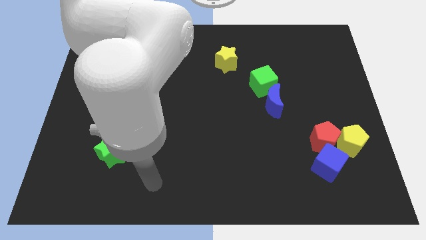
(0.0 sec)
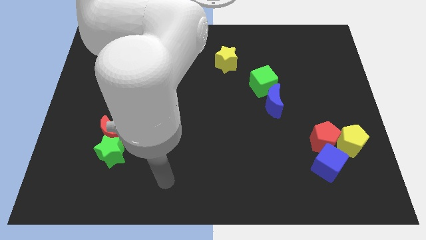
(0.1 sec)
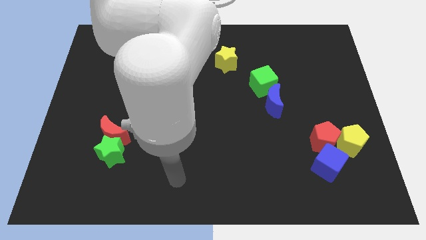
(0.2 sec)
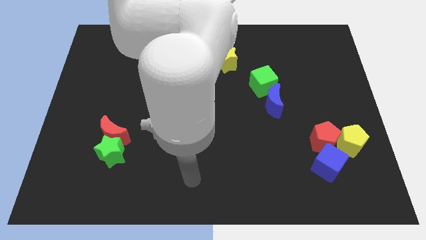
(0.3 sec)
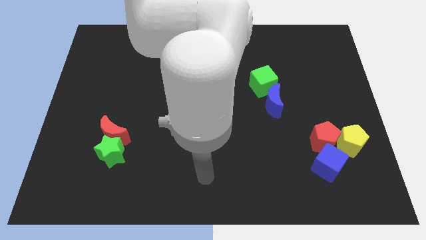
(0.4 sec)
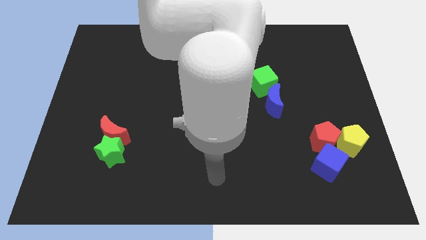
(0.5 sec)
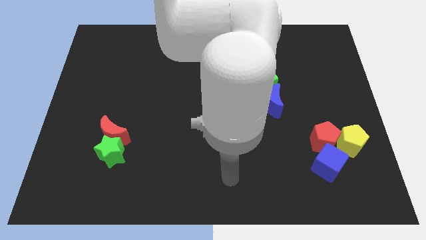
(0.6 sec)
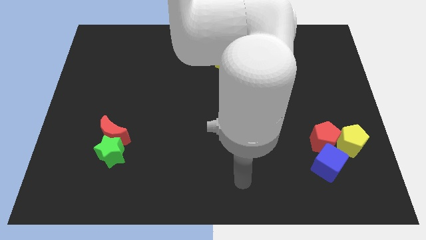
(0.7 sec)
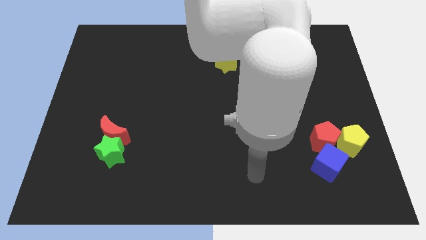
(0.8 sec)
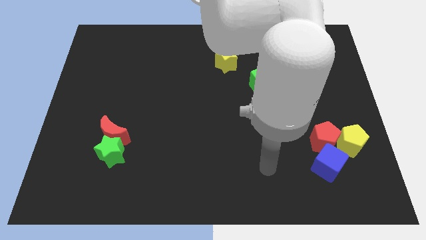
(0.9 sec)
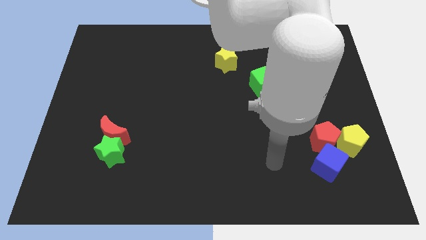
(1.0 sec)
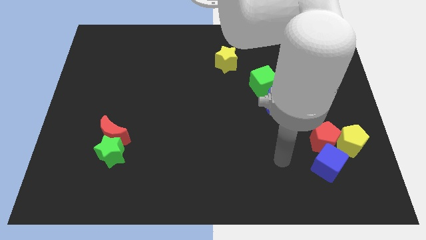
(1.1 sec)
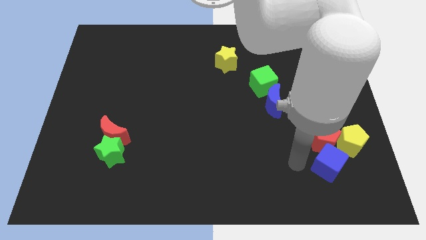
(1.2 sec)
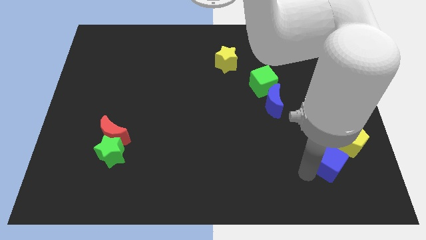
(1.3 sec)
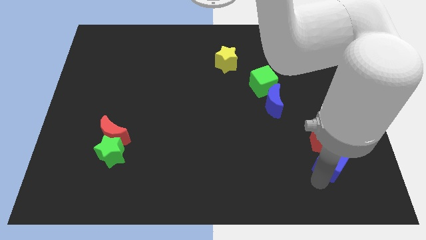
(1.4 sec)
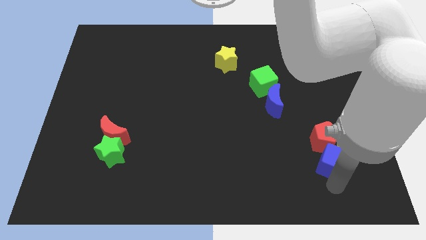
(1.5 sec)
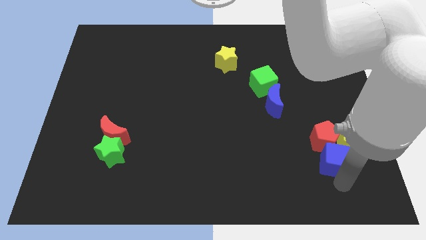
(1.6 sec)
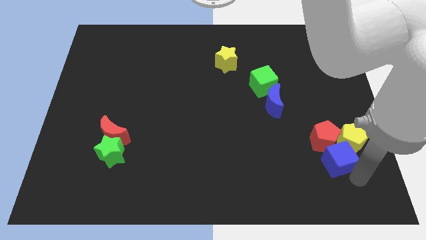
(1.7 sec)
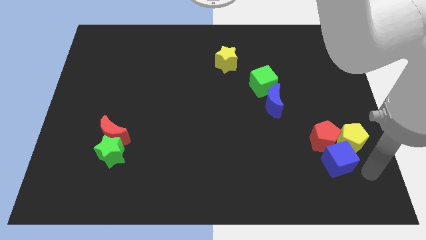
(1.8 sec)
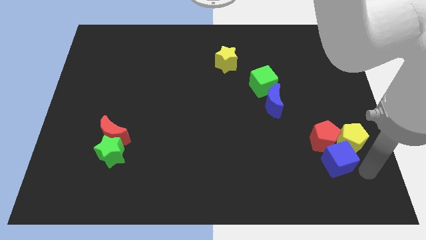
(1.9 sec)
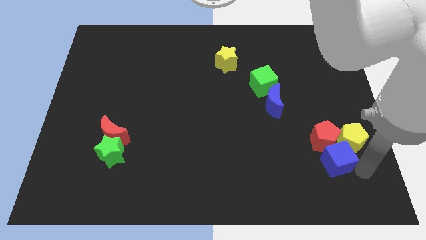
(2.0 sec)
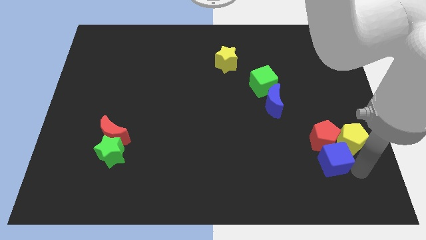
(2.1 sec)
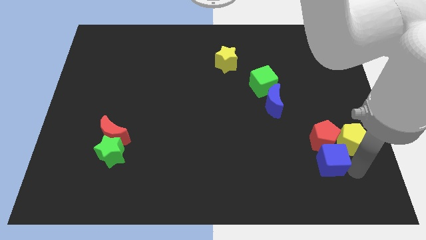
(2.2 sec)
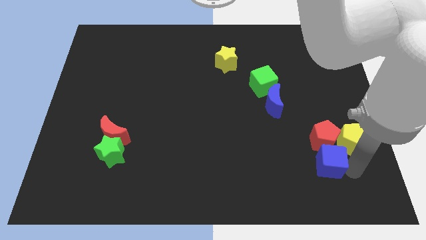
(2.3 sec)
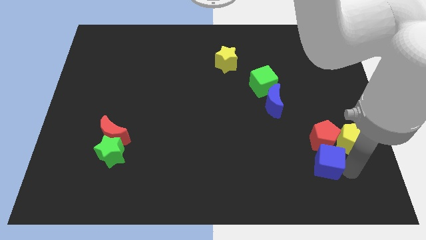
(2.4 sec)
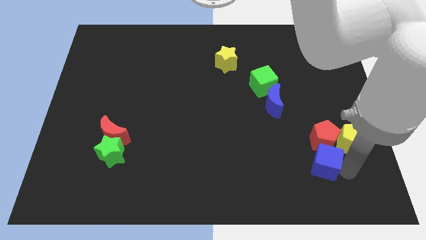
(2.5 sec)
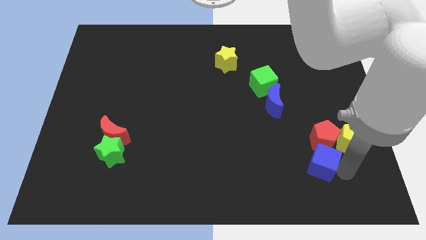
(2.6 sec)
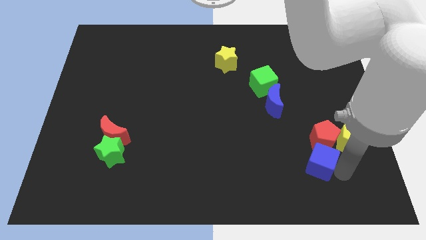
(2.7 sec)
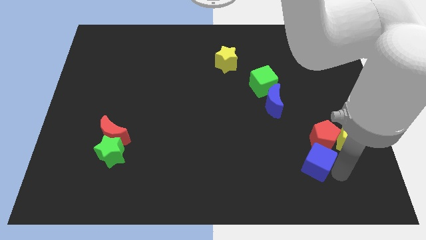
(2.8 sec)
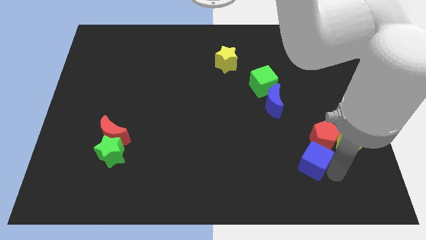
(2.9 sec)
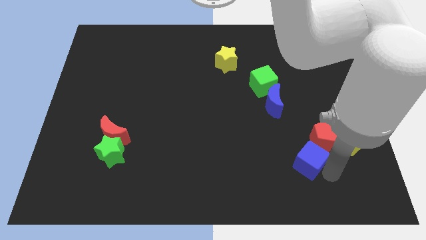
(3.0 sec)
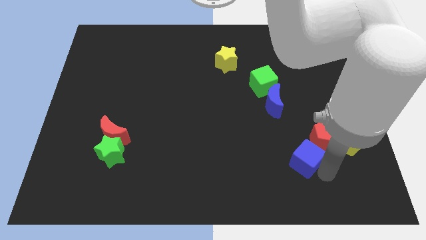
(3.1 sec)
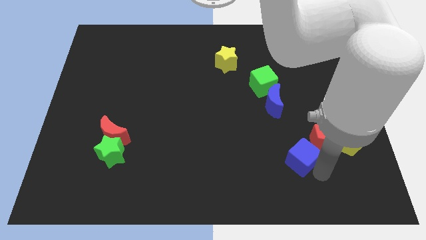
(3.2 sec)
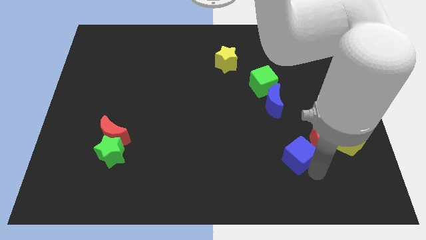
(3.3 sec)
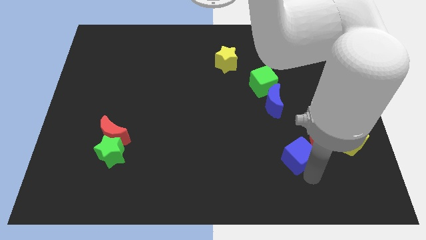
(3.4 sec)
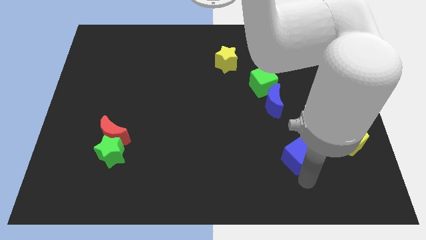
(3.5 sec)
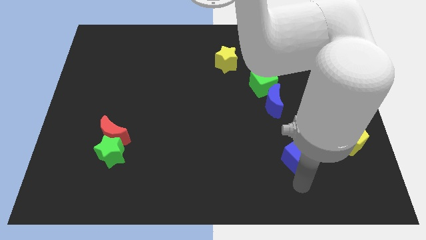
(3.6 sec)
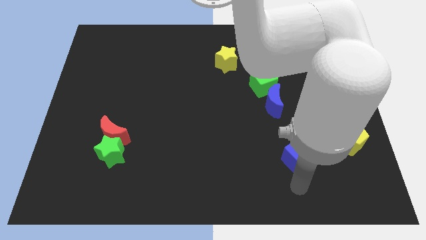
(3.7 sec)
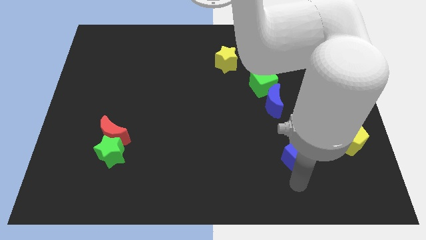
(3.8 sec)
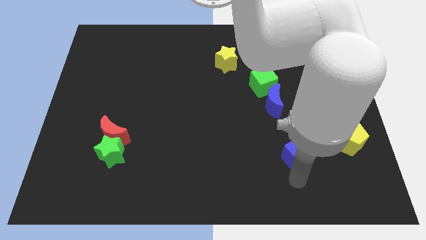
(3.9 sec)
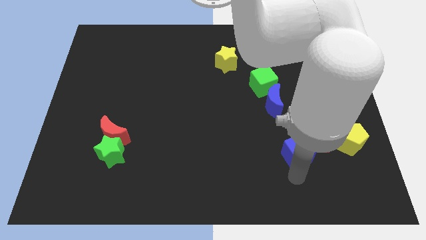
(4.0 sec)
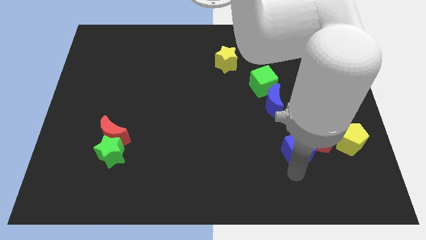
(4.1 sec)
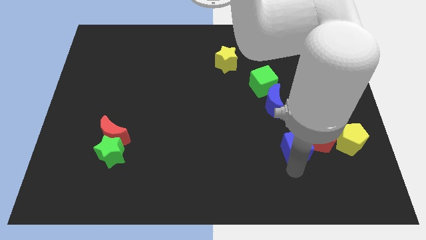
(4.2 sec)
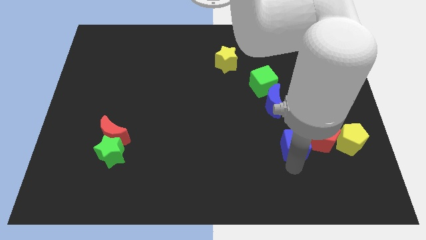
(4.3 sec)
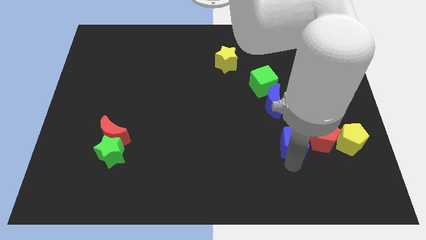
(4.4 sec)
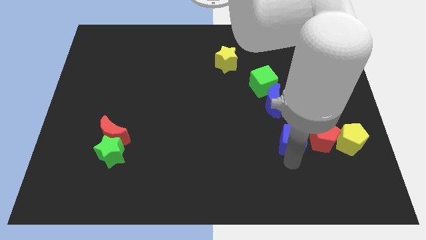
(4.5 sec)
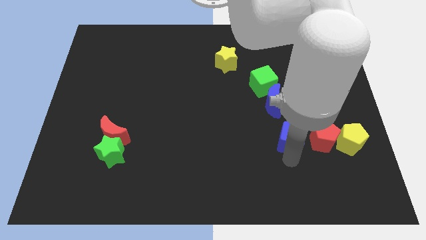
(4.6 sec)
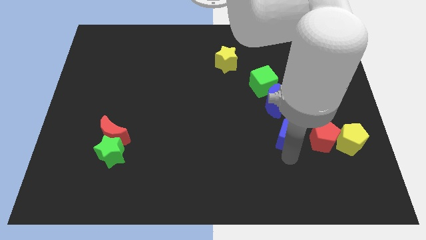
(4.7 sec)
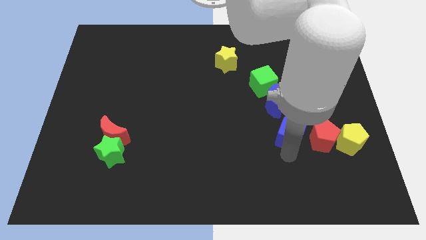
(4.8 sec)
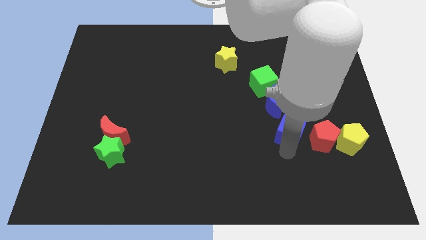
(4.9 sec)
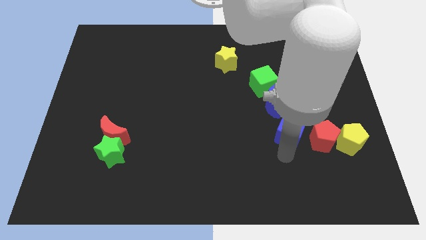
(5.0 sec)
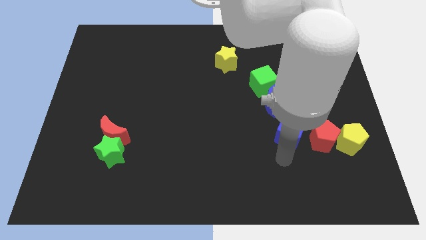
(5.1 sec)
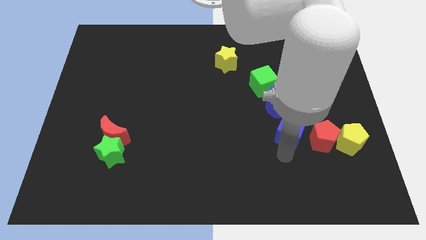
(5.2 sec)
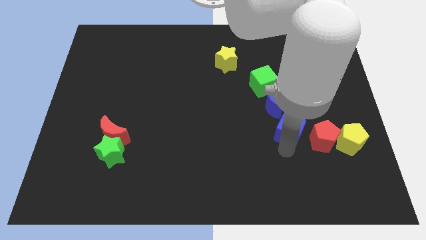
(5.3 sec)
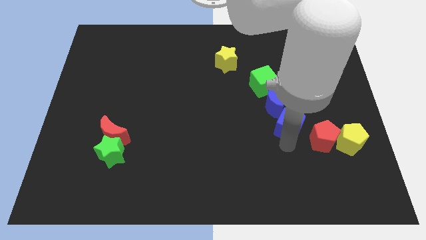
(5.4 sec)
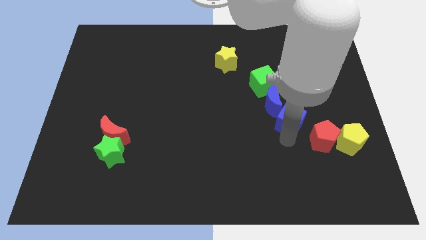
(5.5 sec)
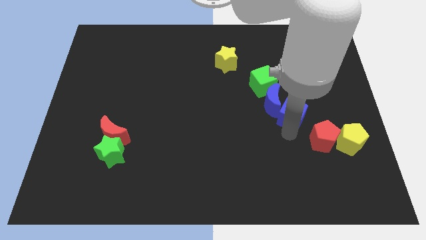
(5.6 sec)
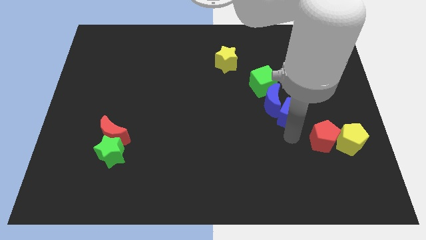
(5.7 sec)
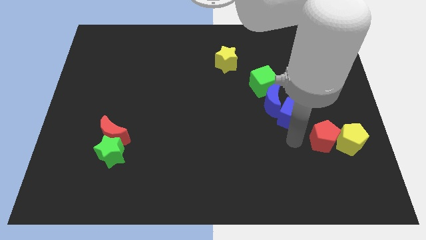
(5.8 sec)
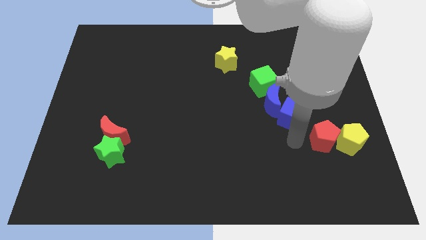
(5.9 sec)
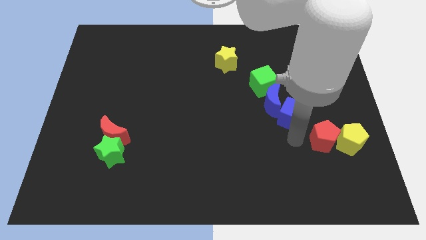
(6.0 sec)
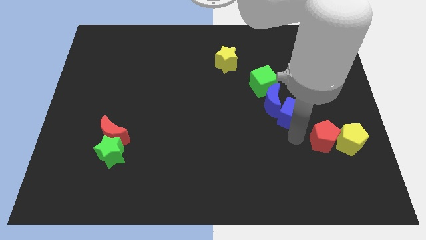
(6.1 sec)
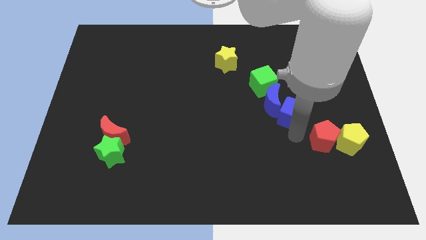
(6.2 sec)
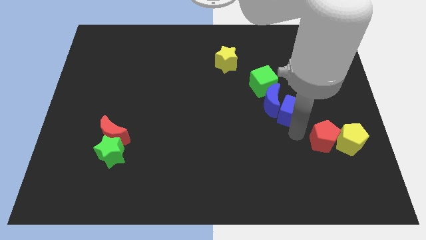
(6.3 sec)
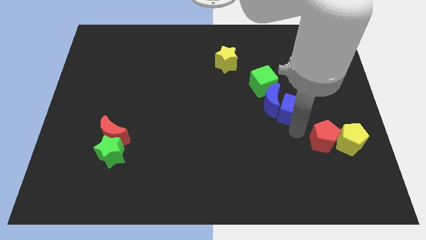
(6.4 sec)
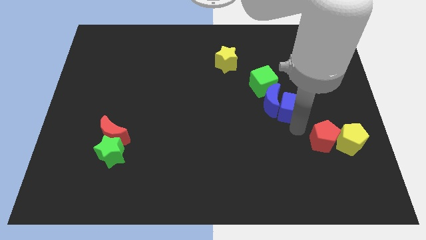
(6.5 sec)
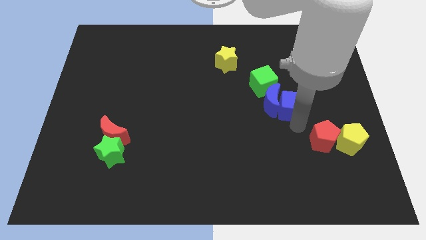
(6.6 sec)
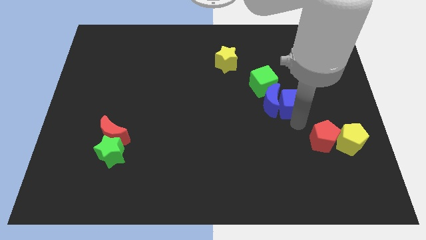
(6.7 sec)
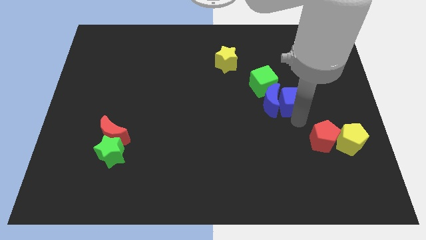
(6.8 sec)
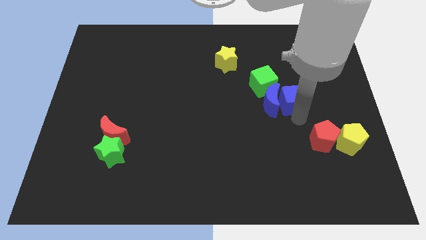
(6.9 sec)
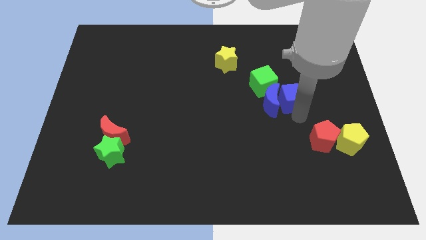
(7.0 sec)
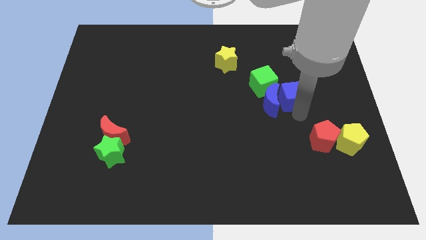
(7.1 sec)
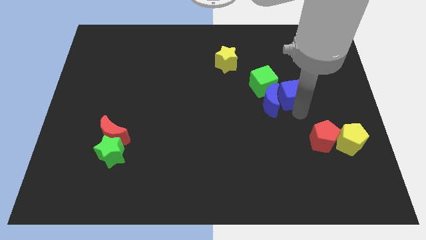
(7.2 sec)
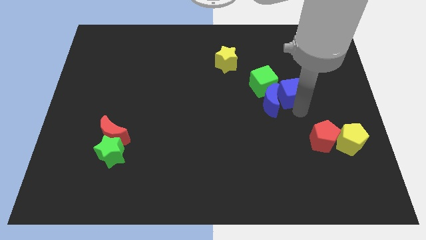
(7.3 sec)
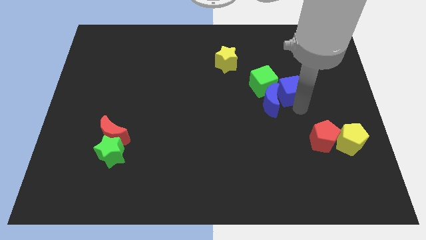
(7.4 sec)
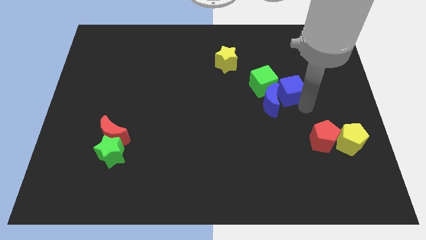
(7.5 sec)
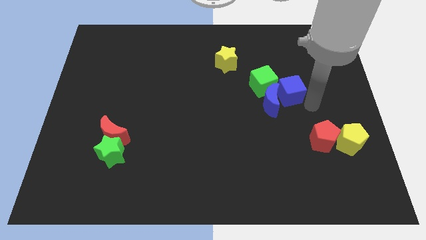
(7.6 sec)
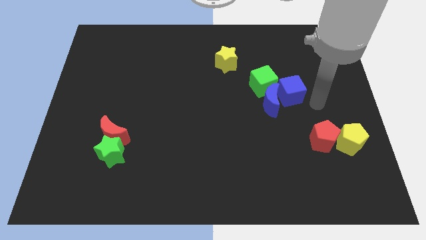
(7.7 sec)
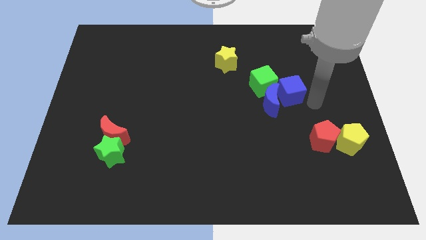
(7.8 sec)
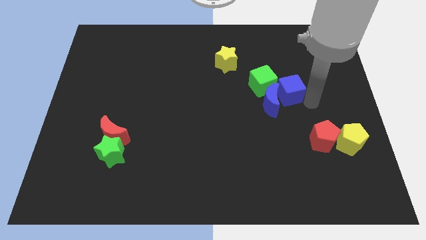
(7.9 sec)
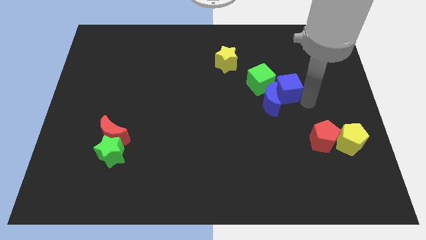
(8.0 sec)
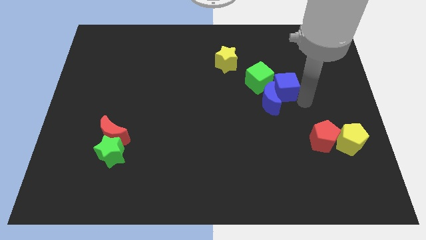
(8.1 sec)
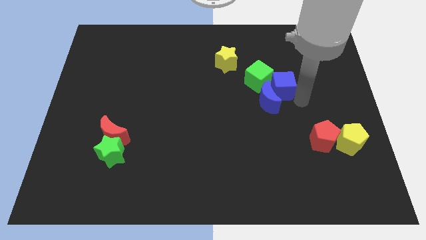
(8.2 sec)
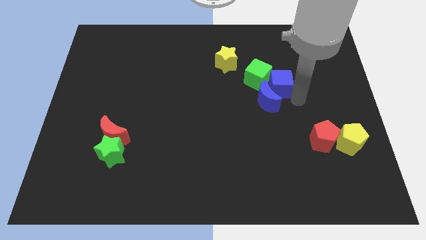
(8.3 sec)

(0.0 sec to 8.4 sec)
put the blue cube next to the green cube
